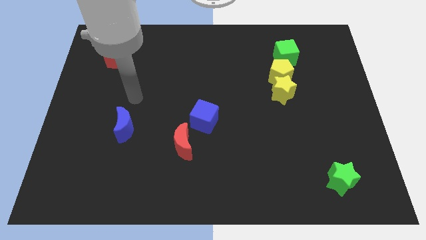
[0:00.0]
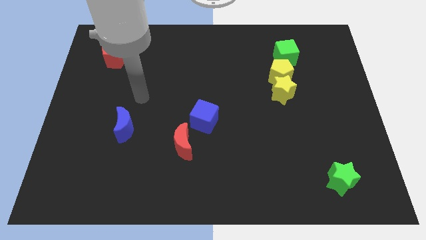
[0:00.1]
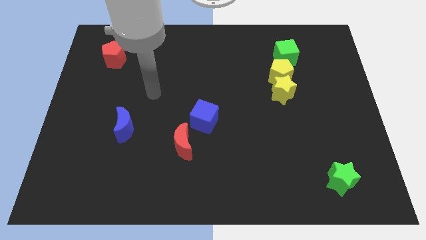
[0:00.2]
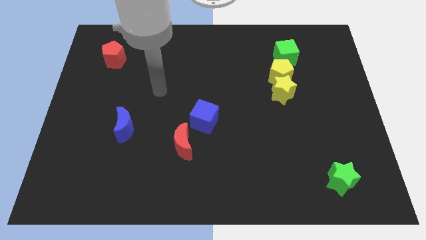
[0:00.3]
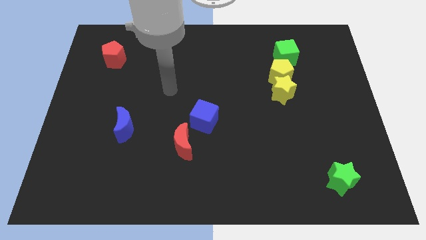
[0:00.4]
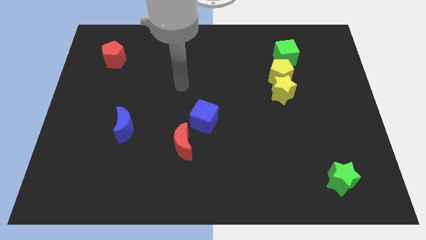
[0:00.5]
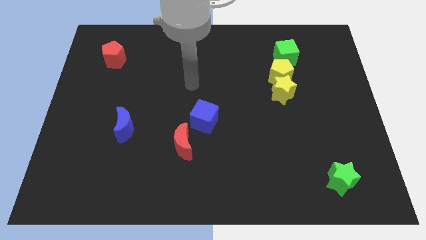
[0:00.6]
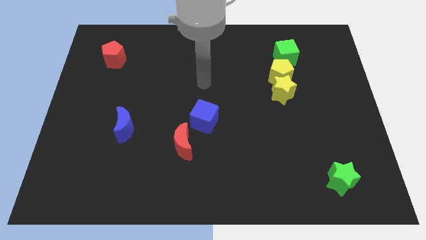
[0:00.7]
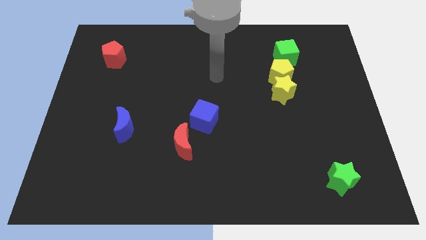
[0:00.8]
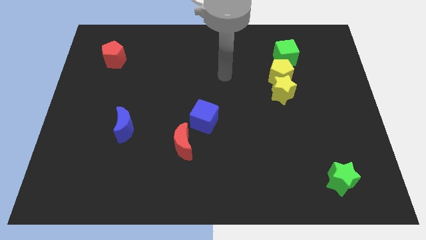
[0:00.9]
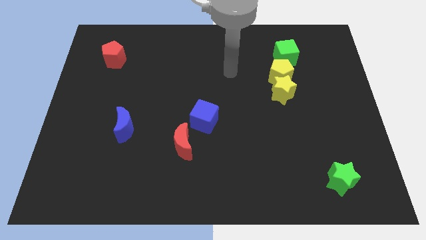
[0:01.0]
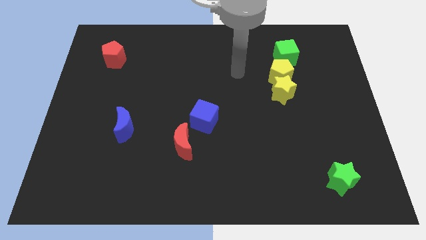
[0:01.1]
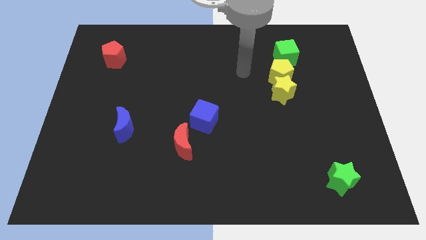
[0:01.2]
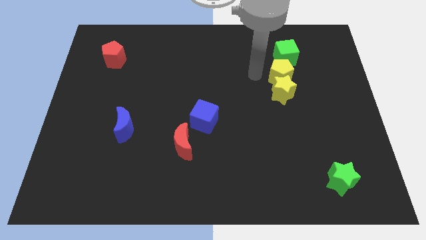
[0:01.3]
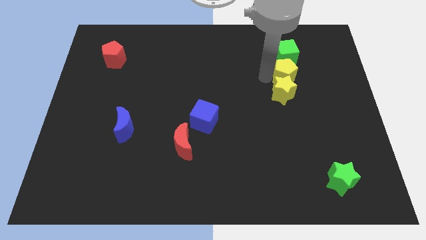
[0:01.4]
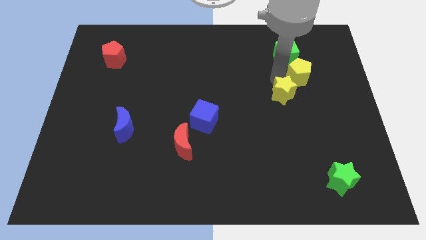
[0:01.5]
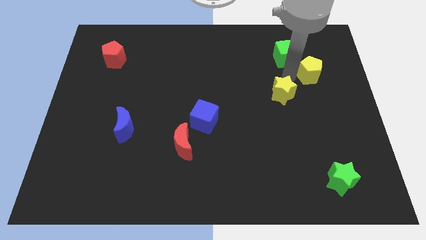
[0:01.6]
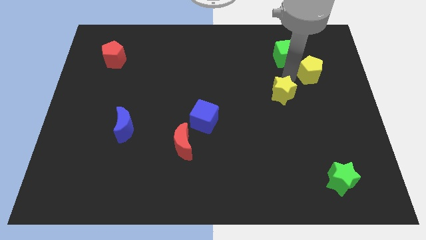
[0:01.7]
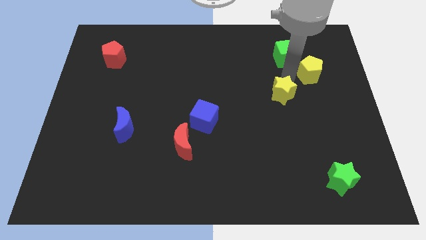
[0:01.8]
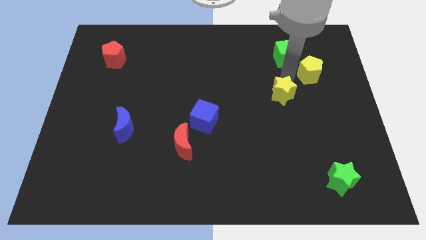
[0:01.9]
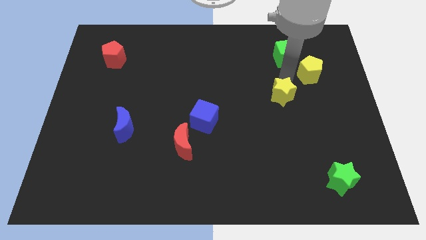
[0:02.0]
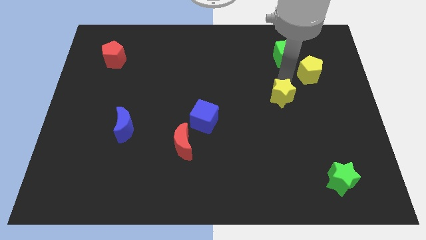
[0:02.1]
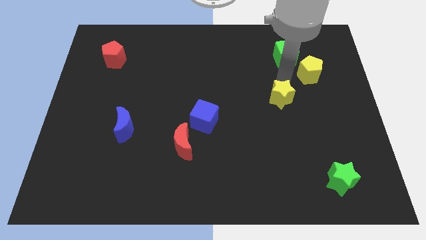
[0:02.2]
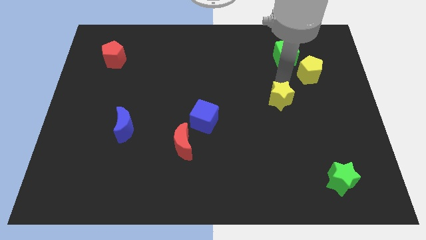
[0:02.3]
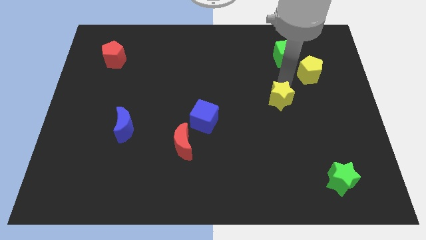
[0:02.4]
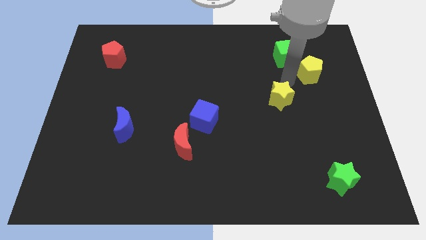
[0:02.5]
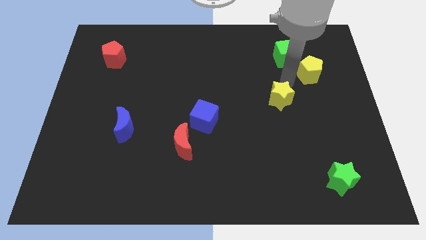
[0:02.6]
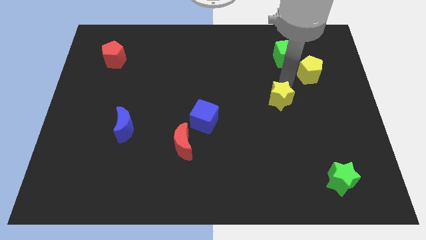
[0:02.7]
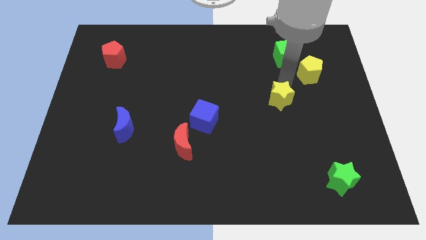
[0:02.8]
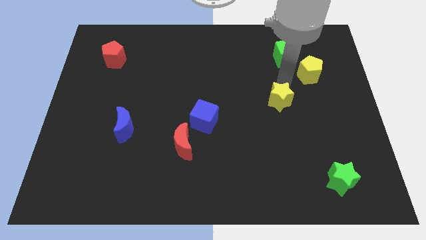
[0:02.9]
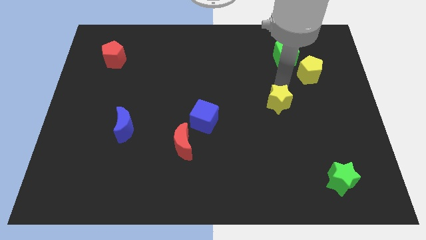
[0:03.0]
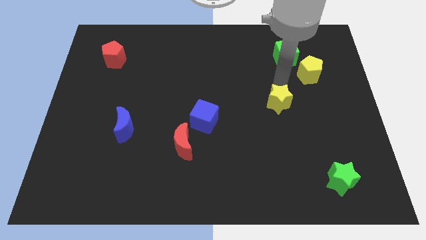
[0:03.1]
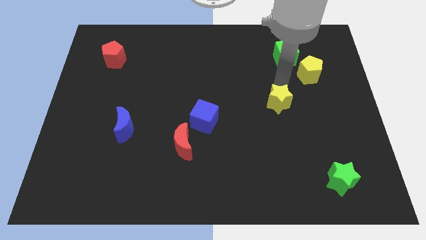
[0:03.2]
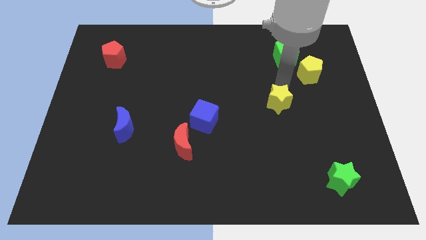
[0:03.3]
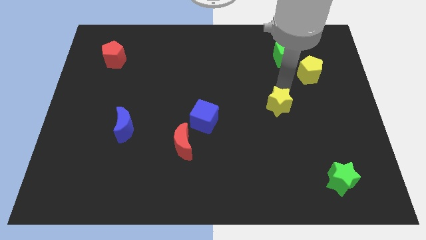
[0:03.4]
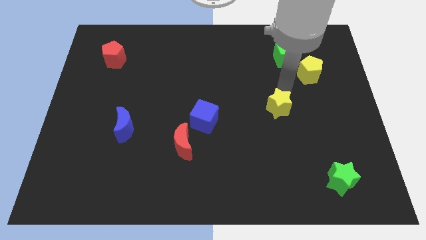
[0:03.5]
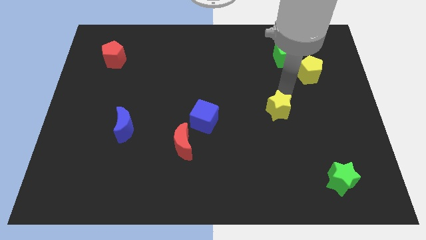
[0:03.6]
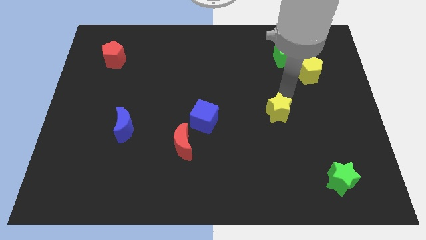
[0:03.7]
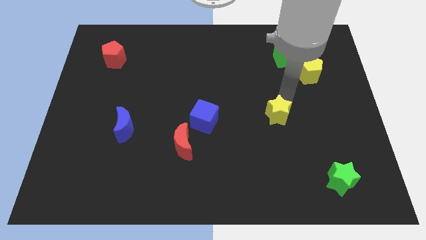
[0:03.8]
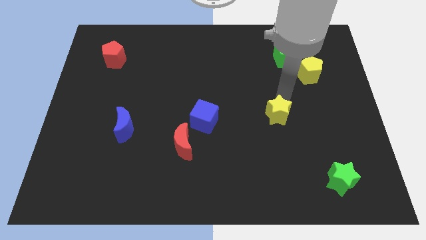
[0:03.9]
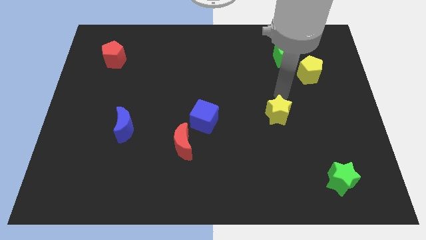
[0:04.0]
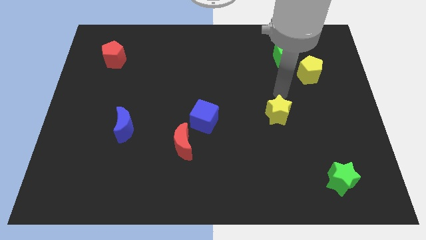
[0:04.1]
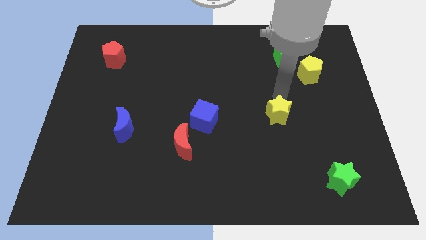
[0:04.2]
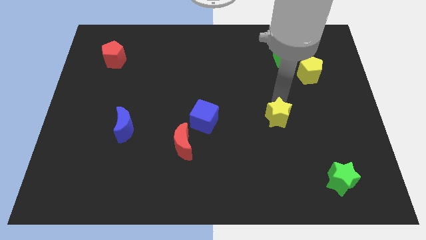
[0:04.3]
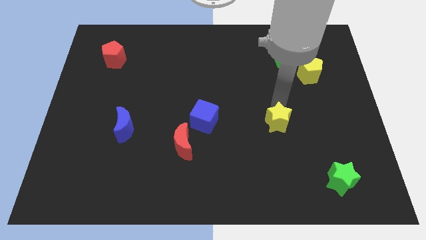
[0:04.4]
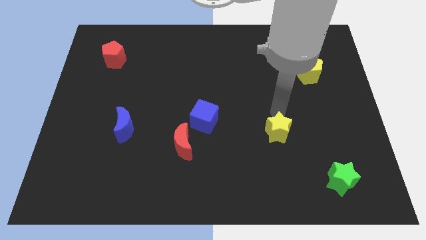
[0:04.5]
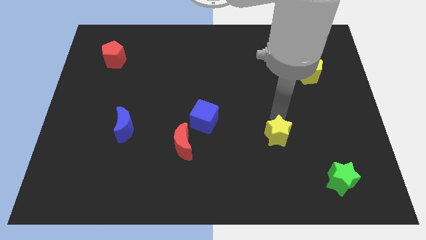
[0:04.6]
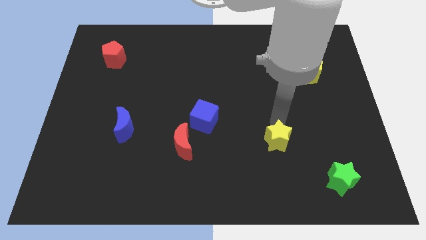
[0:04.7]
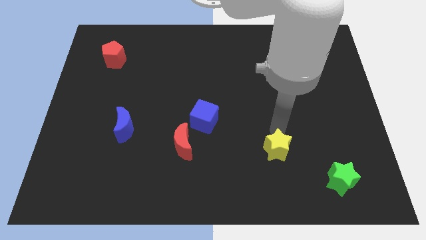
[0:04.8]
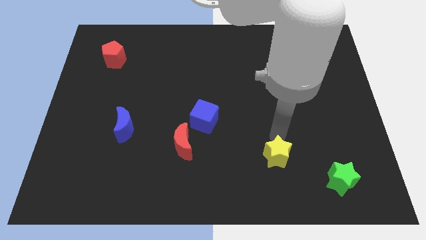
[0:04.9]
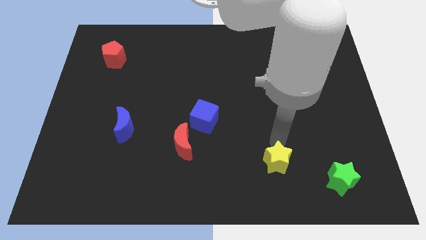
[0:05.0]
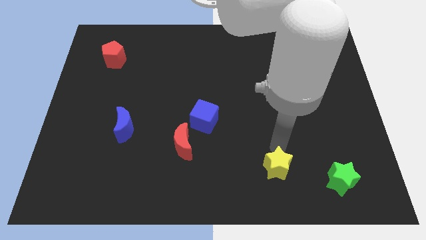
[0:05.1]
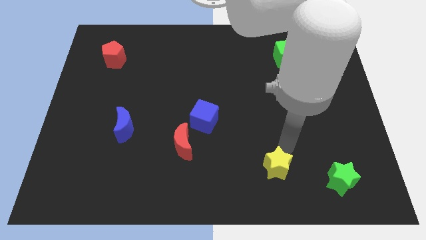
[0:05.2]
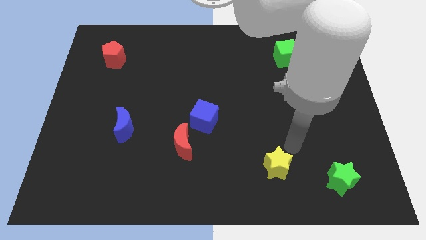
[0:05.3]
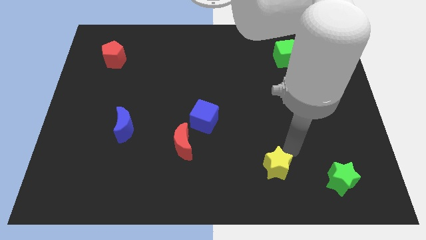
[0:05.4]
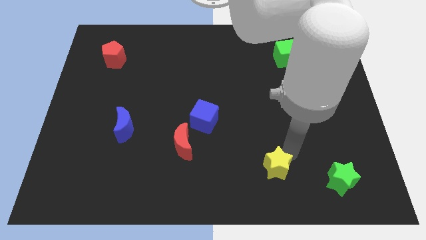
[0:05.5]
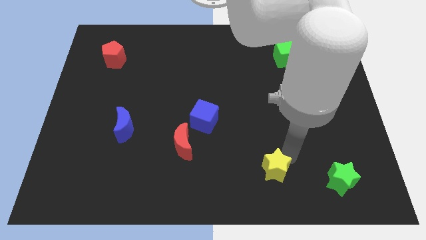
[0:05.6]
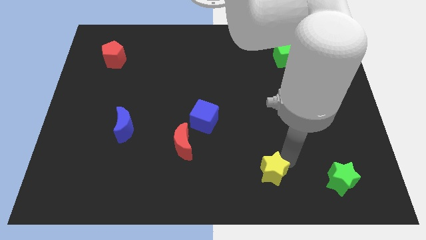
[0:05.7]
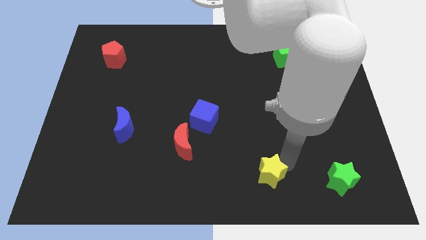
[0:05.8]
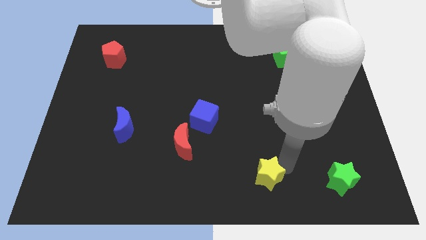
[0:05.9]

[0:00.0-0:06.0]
slide the yellow star to the bottom
